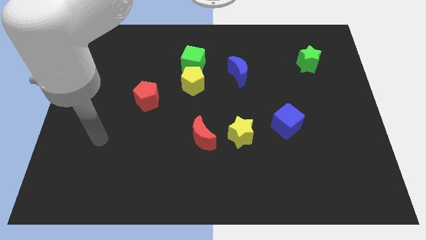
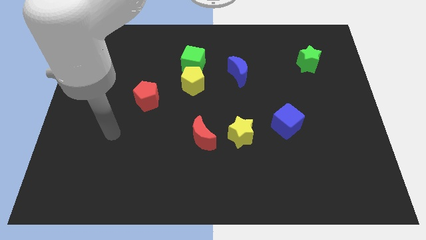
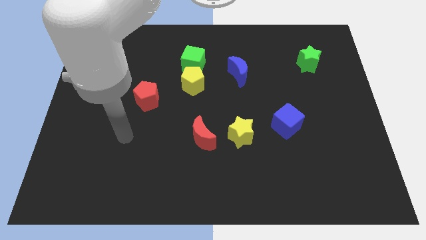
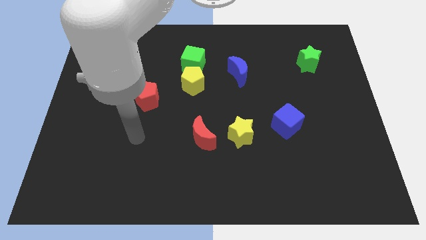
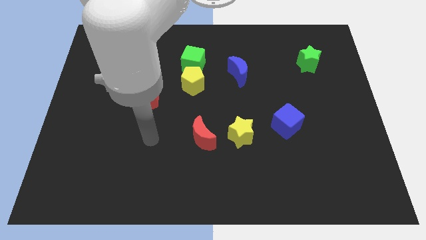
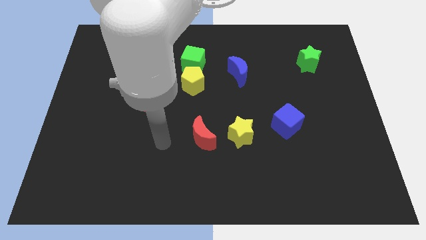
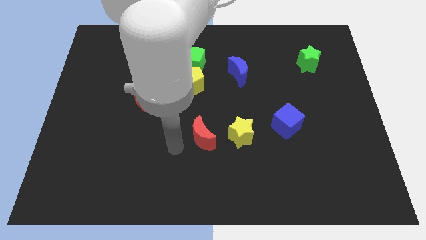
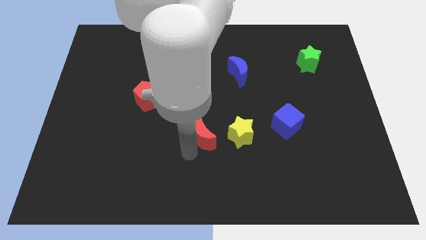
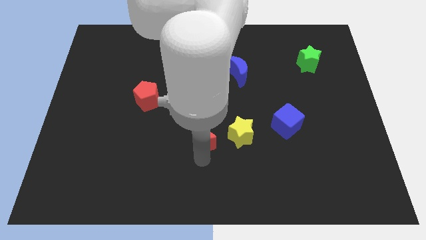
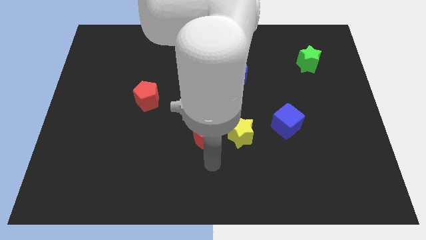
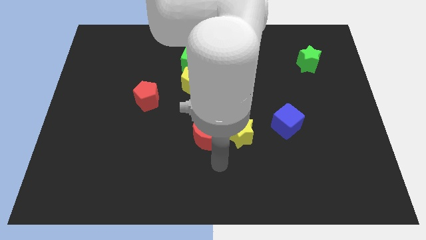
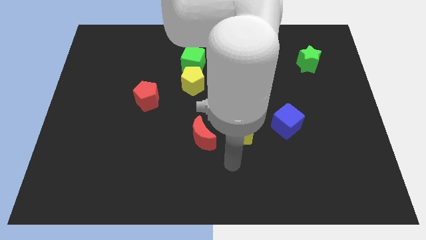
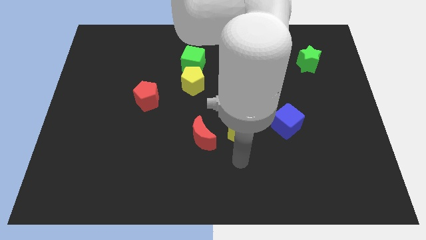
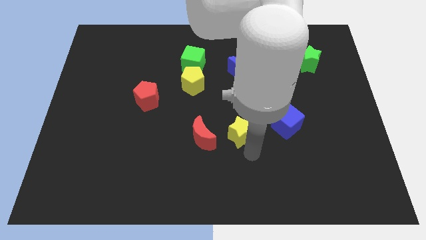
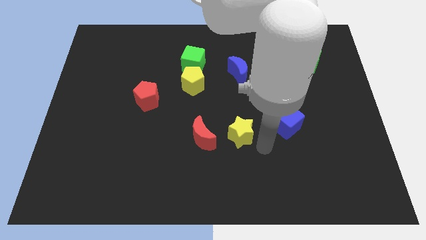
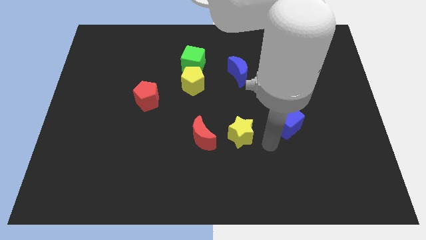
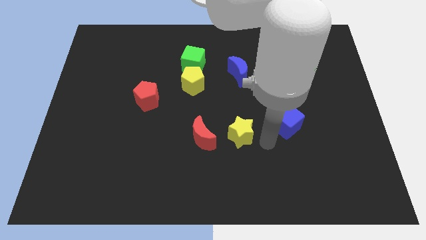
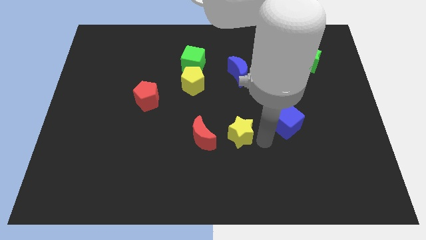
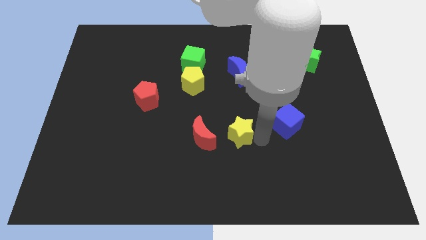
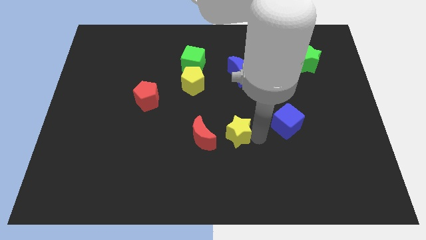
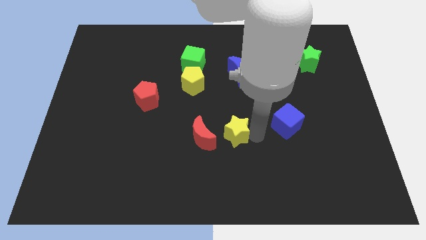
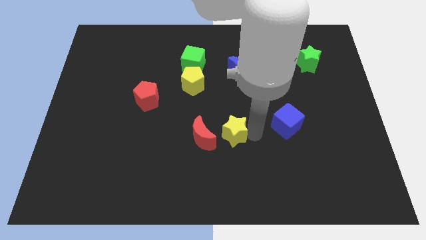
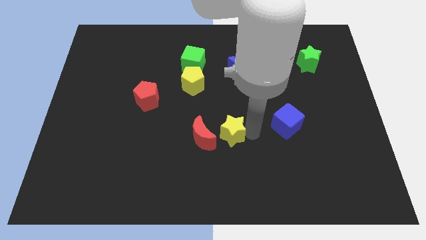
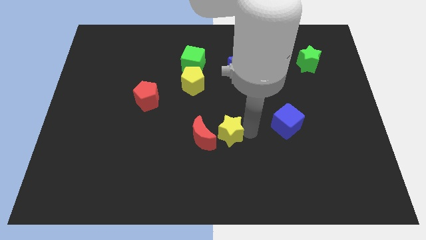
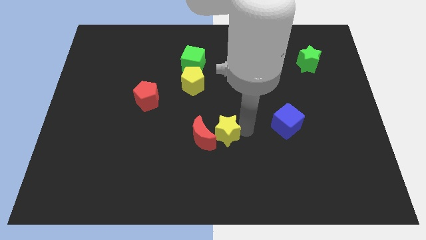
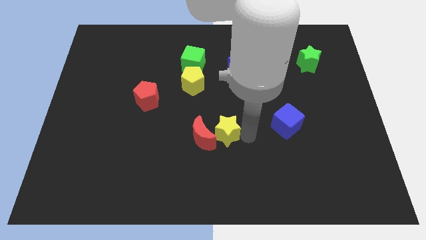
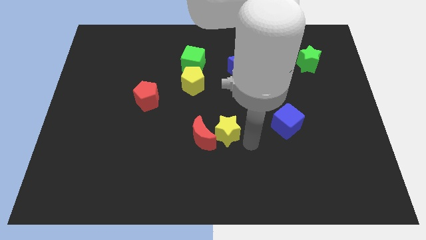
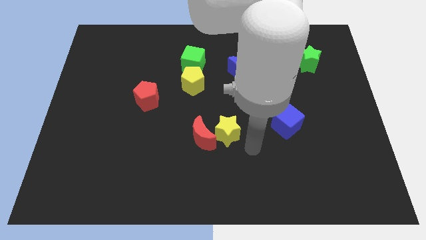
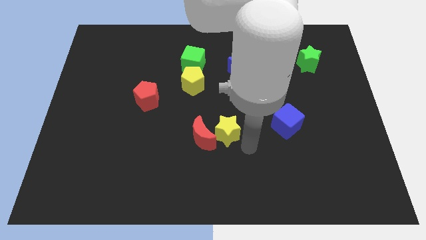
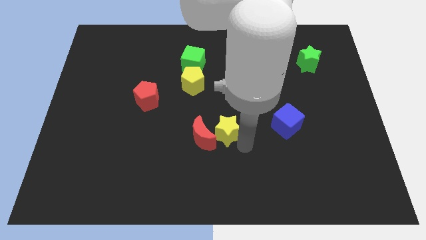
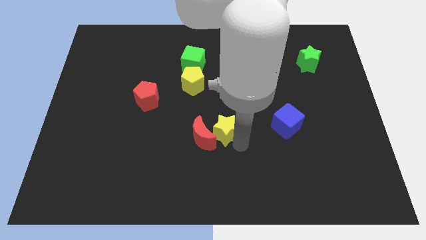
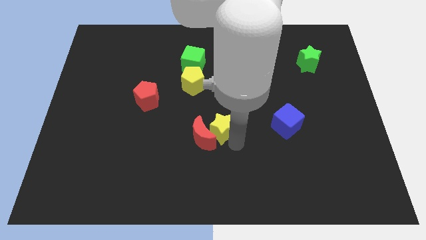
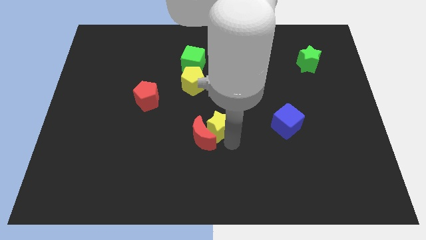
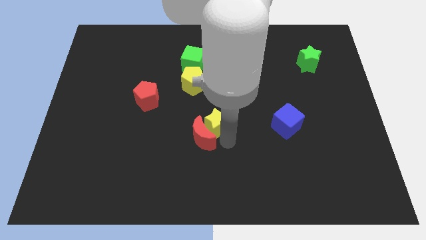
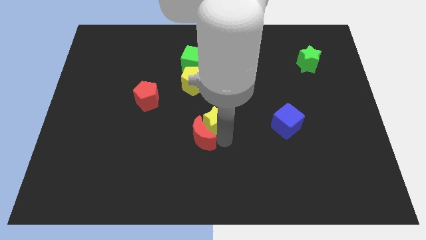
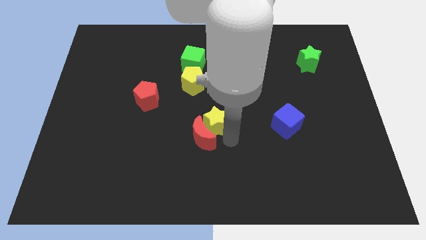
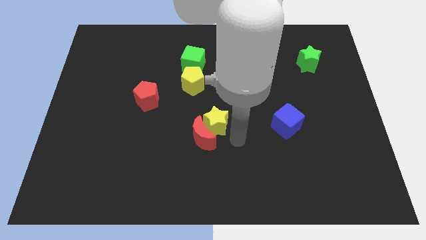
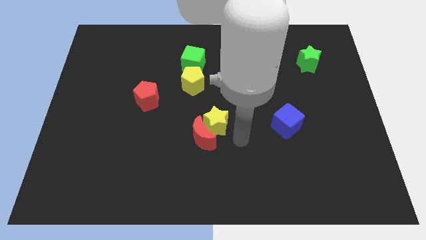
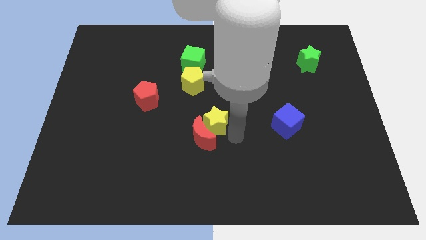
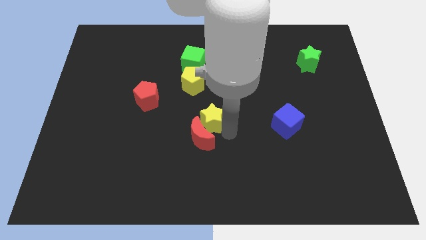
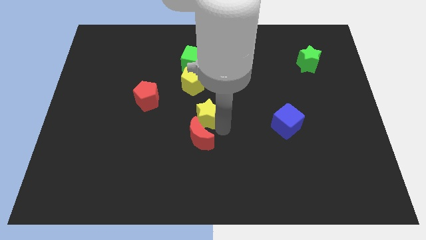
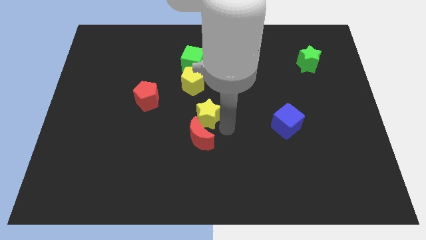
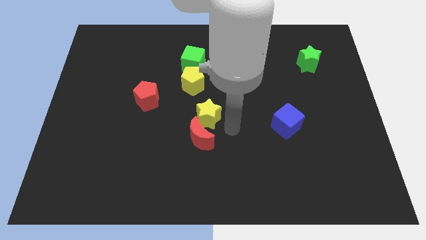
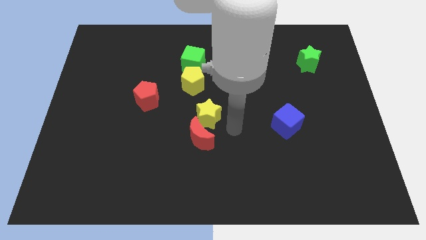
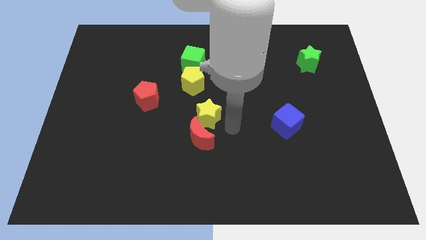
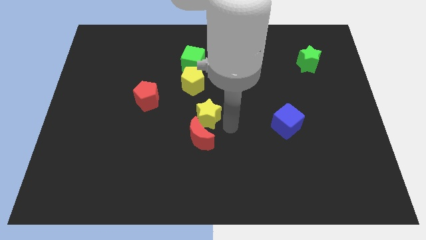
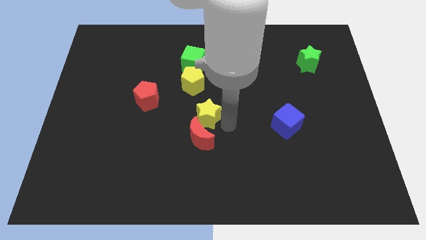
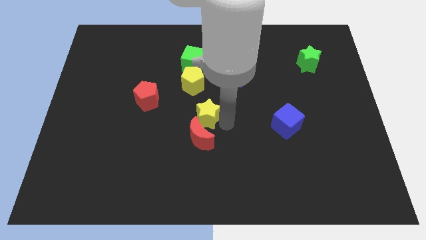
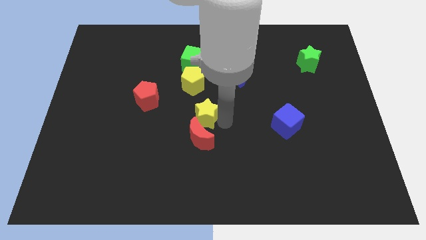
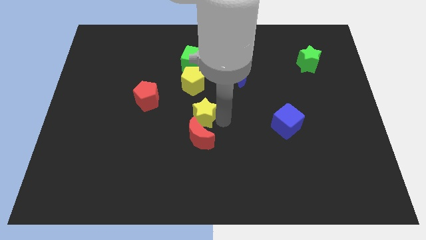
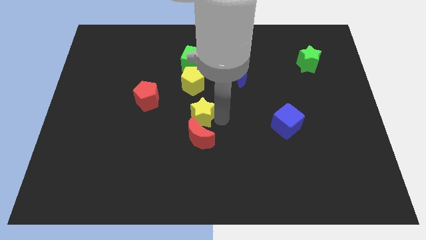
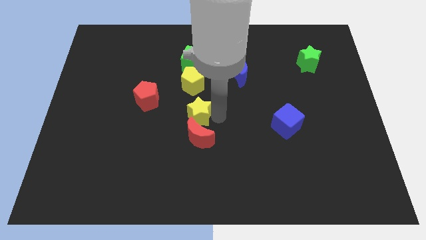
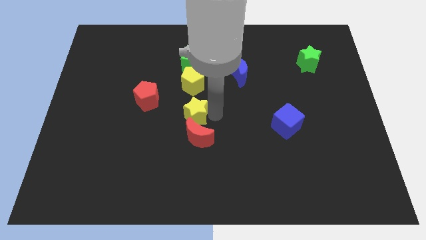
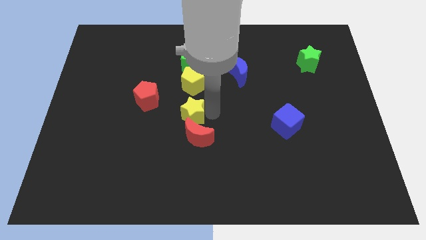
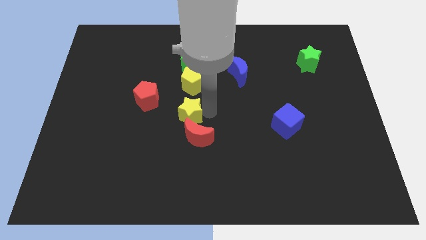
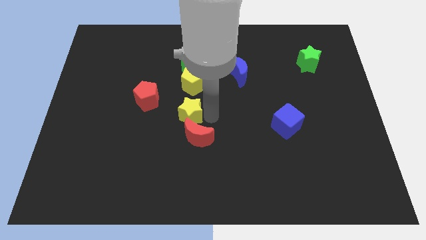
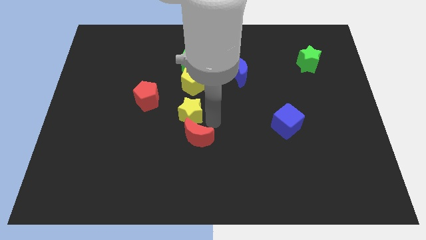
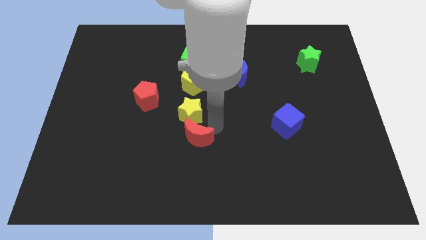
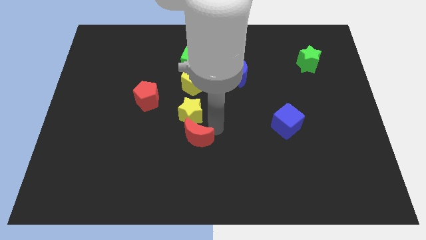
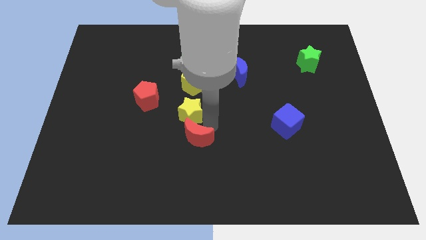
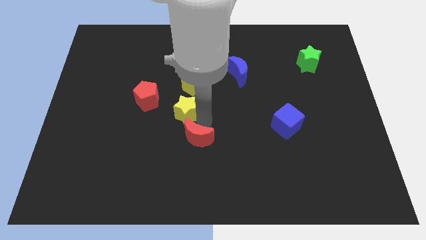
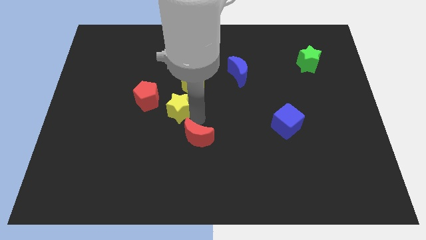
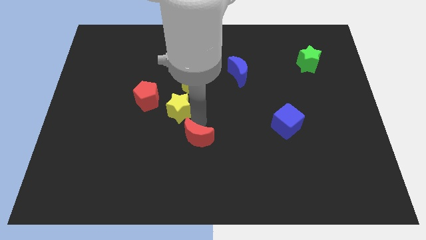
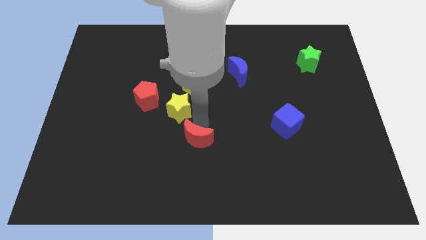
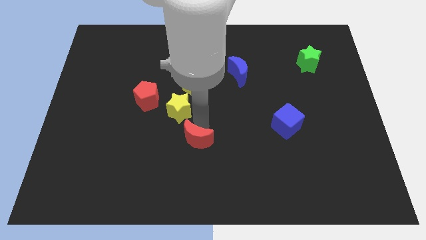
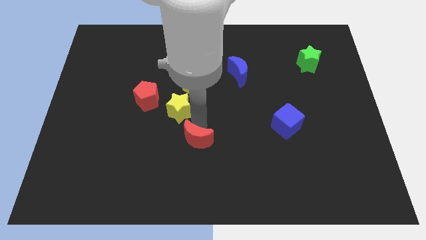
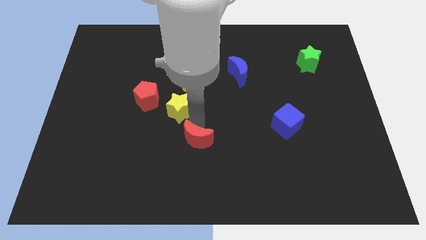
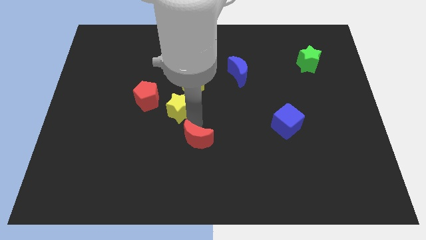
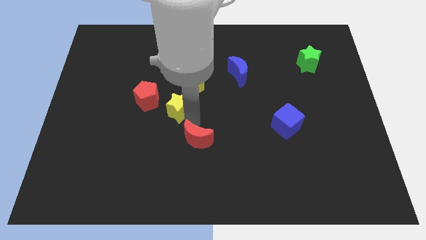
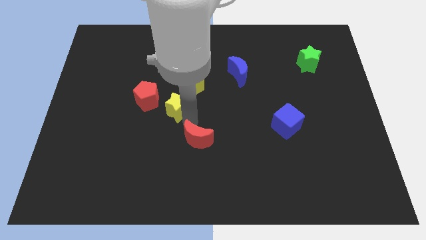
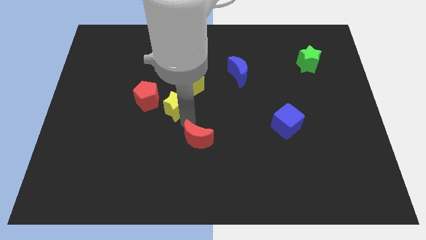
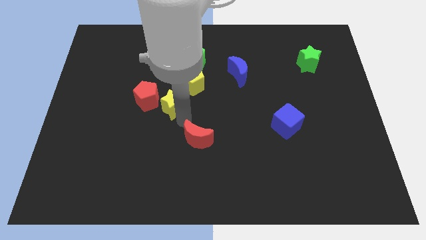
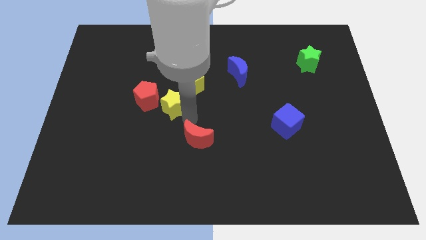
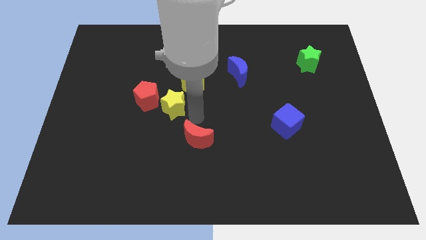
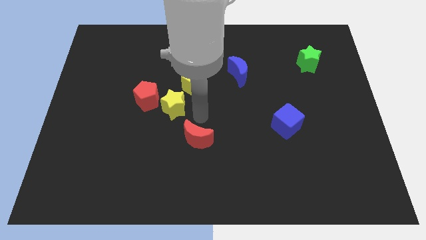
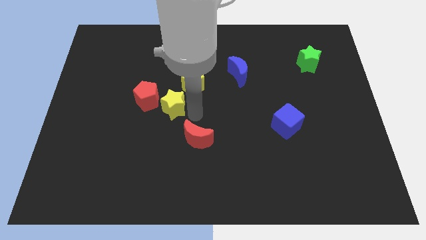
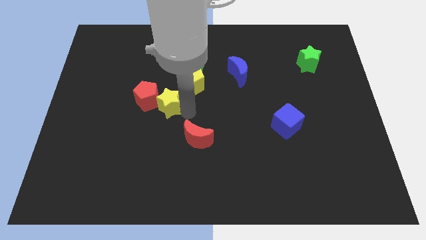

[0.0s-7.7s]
move the yellow star close to the red pentagon
